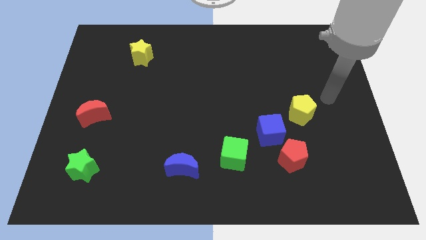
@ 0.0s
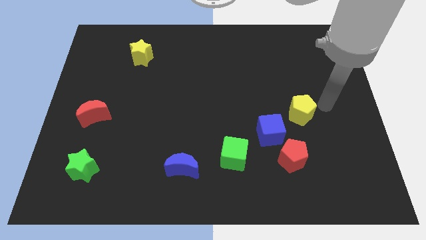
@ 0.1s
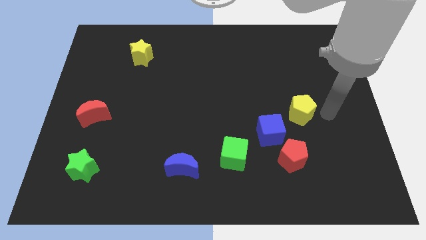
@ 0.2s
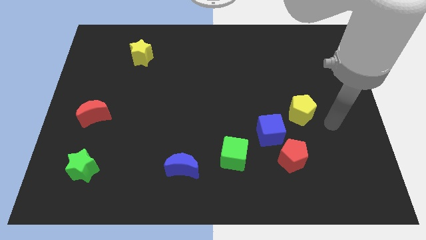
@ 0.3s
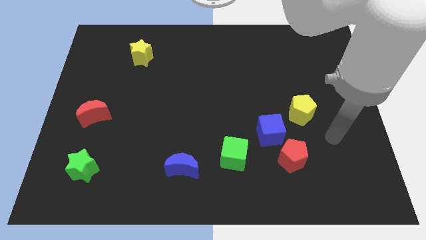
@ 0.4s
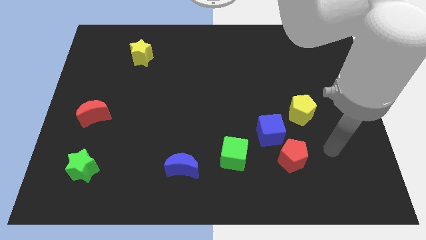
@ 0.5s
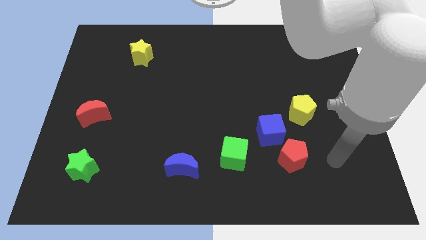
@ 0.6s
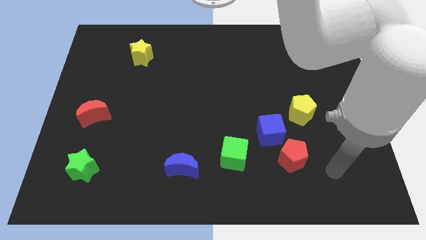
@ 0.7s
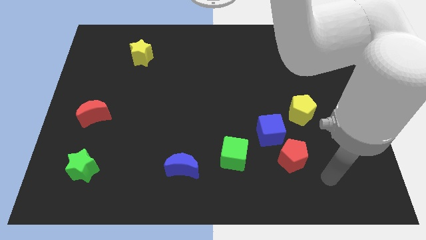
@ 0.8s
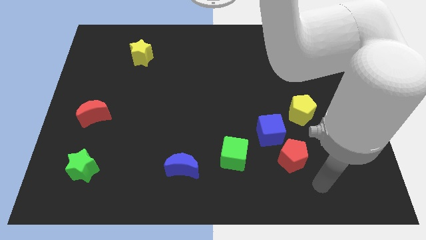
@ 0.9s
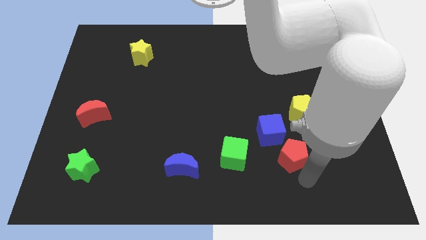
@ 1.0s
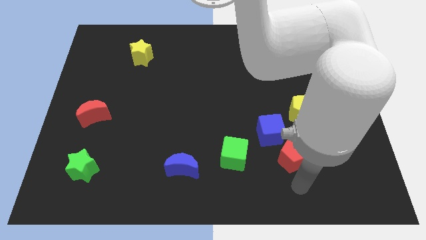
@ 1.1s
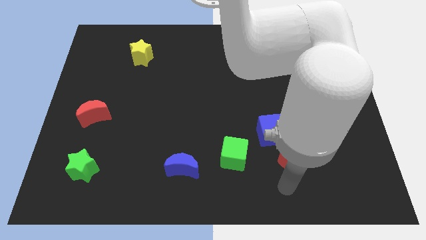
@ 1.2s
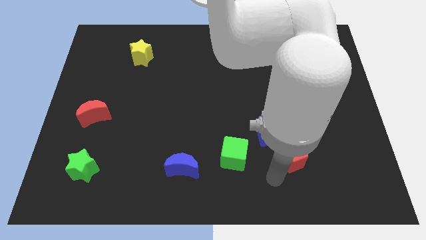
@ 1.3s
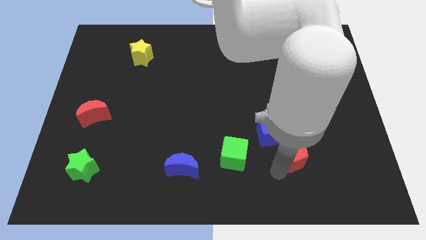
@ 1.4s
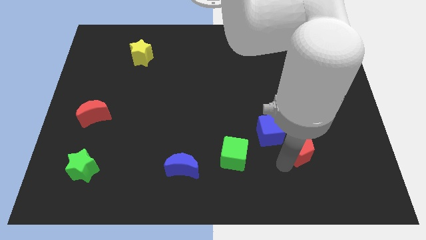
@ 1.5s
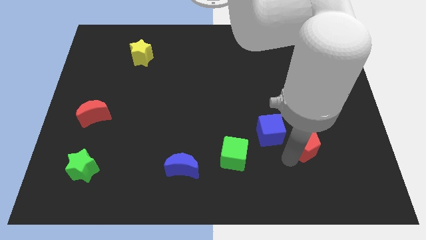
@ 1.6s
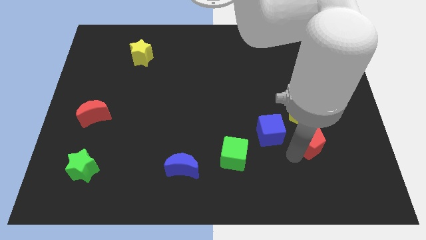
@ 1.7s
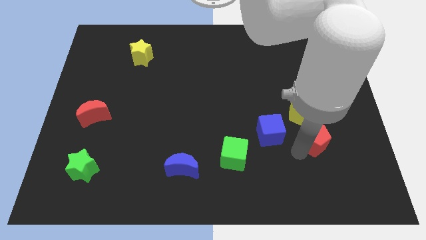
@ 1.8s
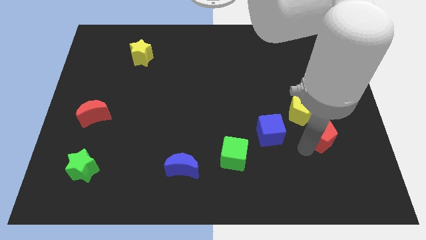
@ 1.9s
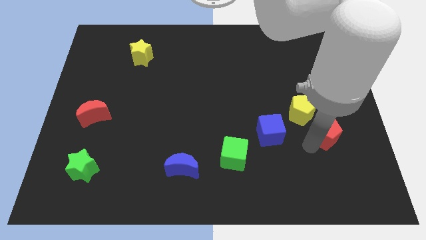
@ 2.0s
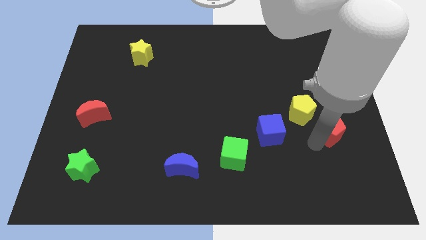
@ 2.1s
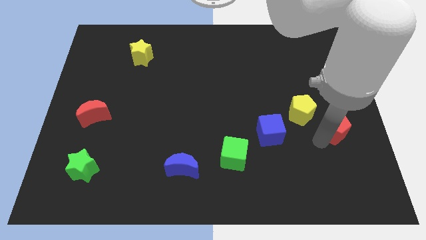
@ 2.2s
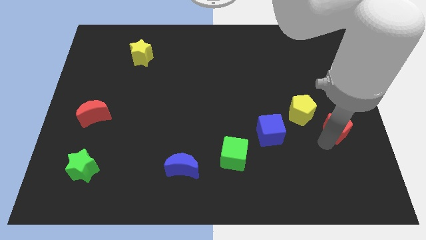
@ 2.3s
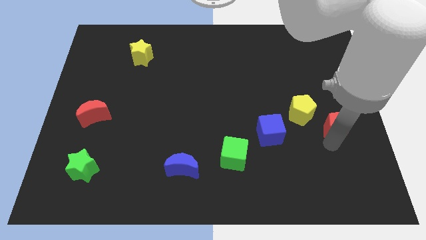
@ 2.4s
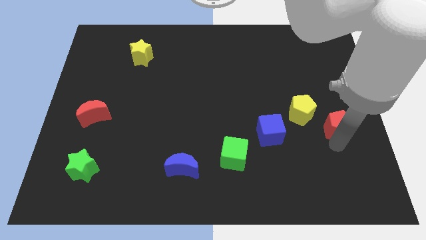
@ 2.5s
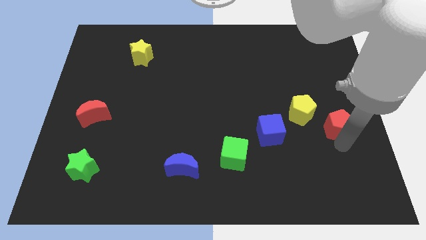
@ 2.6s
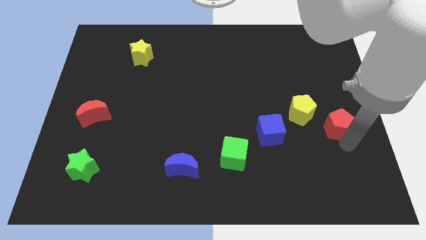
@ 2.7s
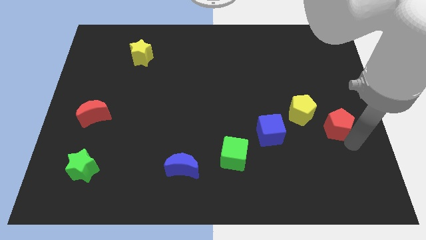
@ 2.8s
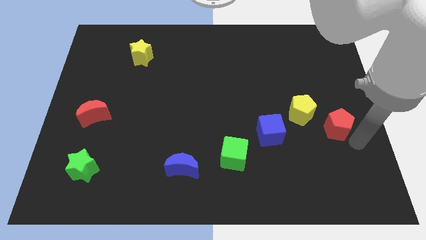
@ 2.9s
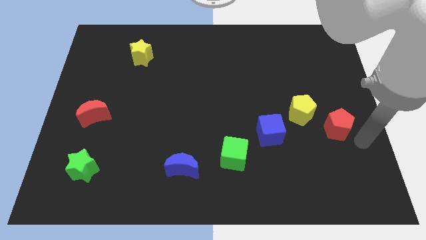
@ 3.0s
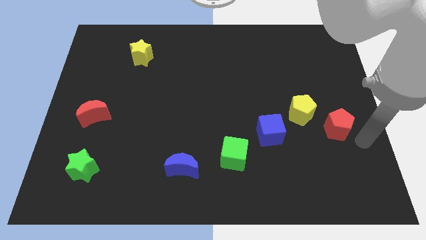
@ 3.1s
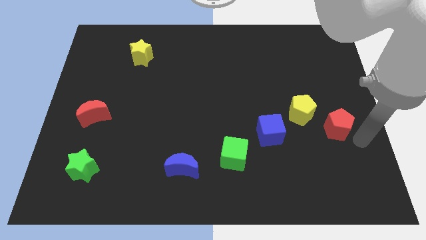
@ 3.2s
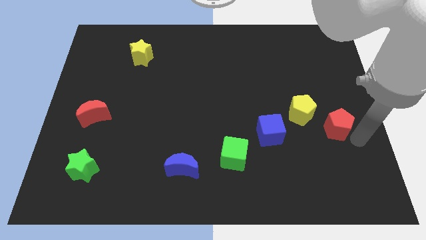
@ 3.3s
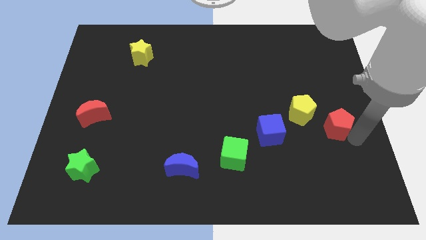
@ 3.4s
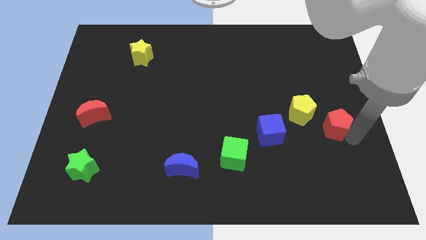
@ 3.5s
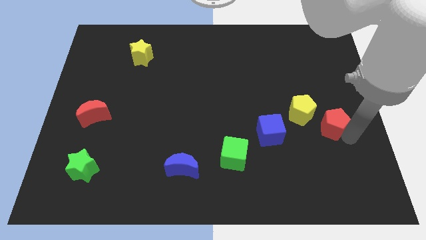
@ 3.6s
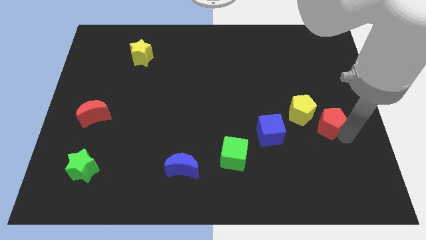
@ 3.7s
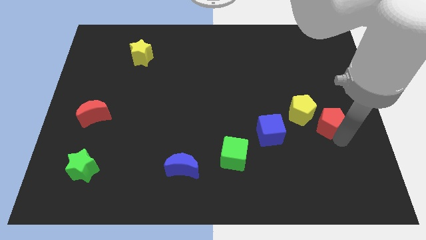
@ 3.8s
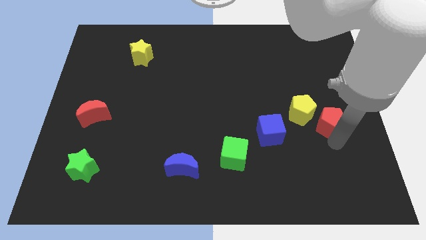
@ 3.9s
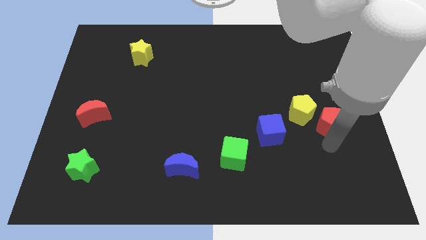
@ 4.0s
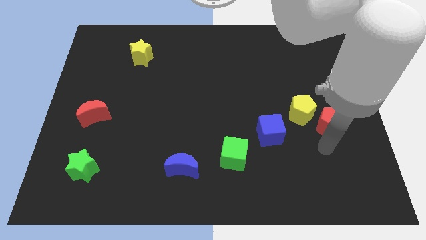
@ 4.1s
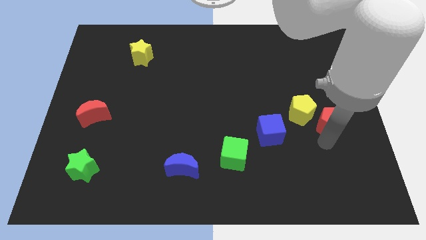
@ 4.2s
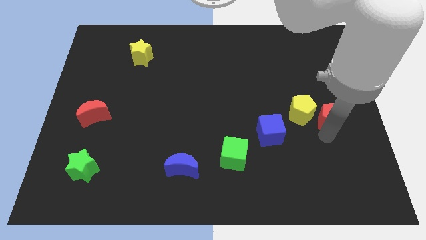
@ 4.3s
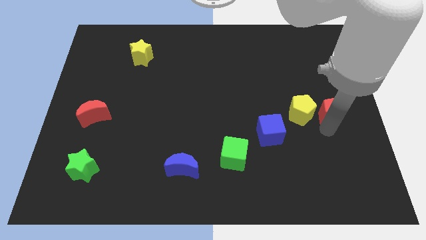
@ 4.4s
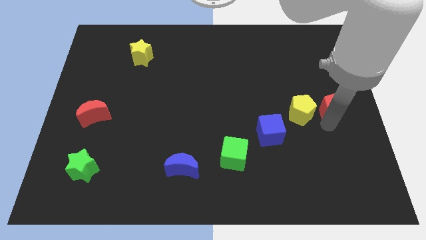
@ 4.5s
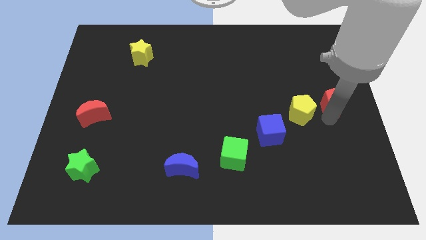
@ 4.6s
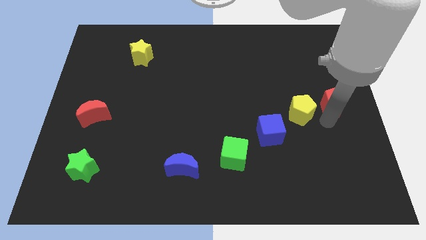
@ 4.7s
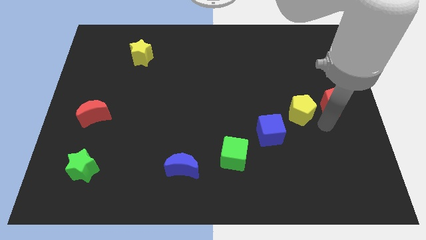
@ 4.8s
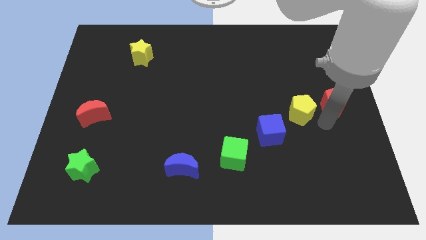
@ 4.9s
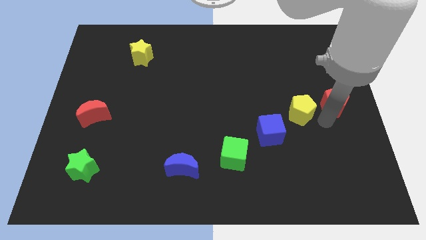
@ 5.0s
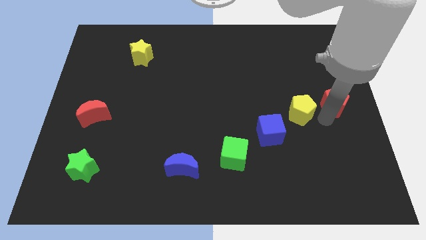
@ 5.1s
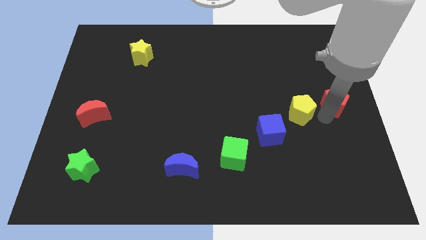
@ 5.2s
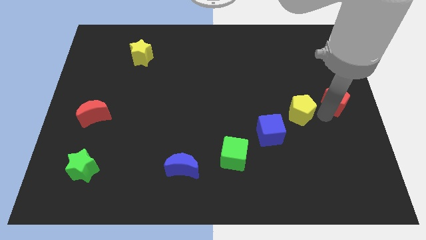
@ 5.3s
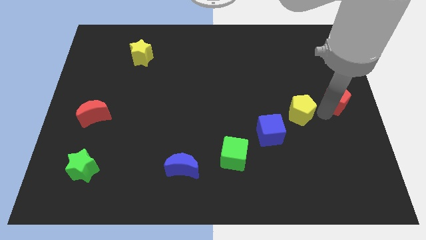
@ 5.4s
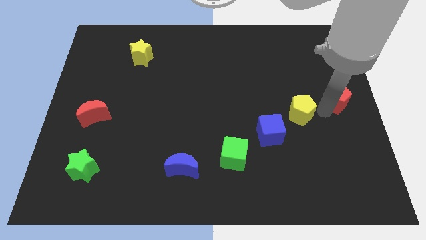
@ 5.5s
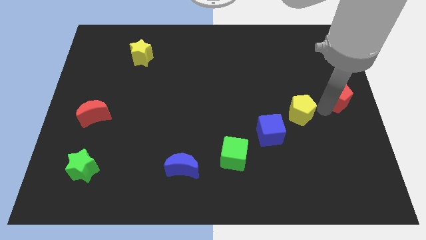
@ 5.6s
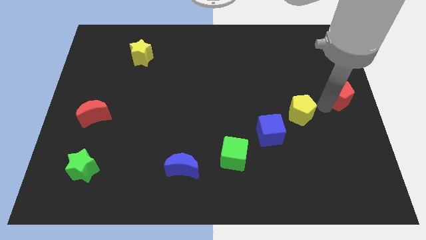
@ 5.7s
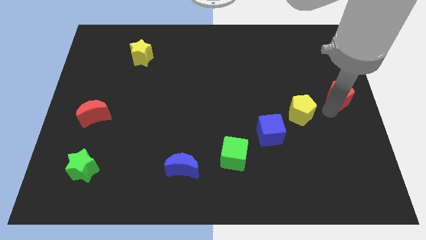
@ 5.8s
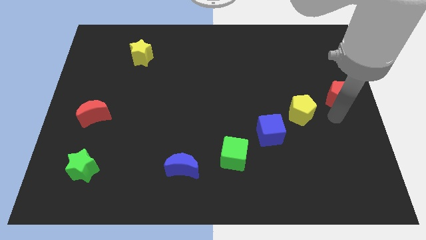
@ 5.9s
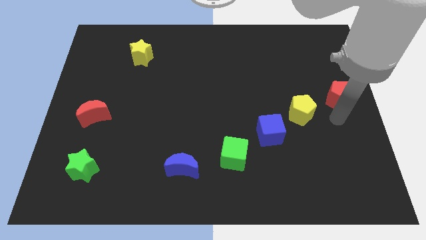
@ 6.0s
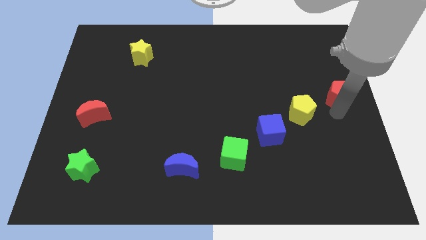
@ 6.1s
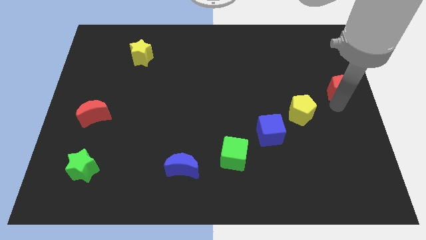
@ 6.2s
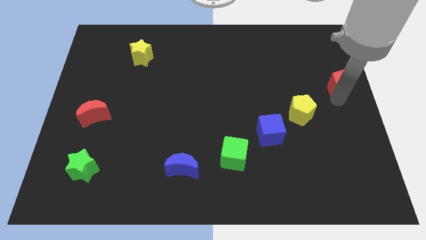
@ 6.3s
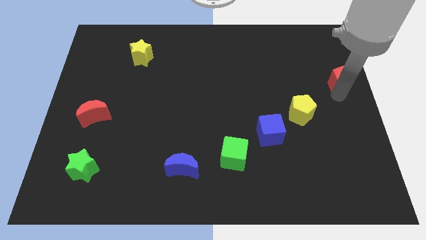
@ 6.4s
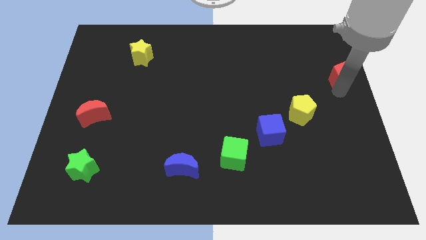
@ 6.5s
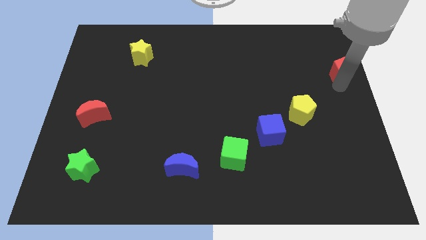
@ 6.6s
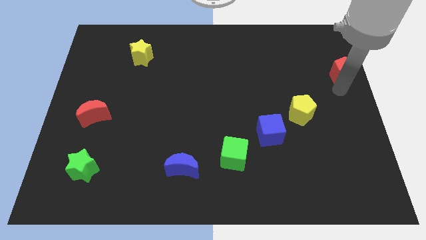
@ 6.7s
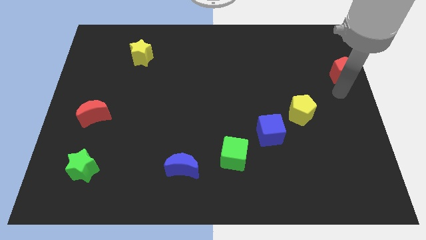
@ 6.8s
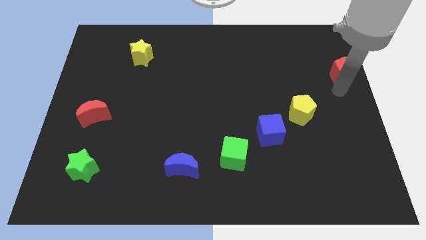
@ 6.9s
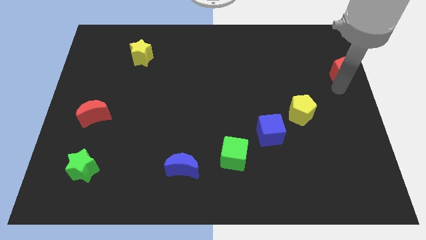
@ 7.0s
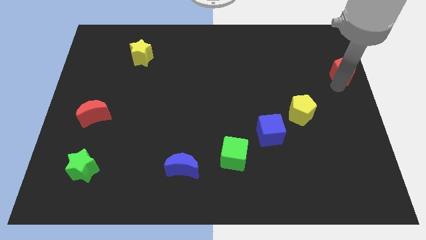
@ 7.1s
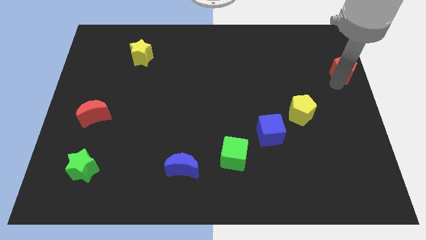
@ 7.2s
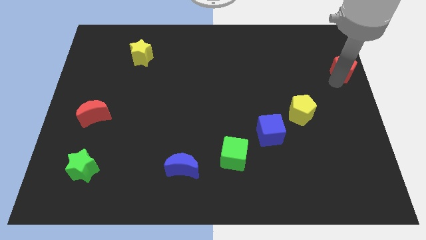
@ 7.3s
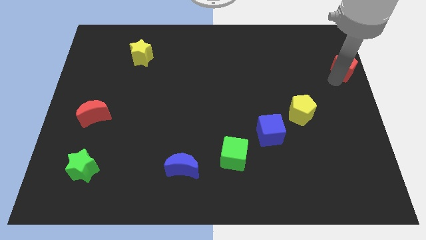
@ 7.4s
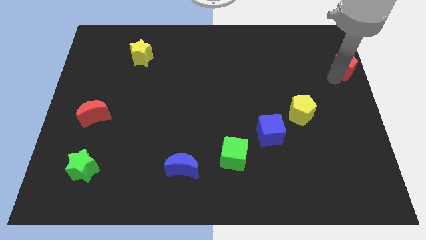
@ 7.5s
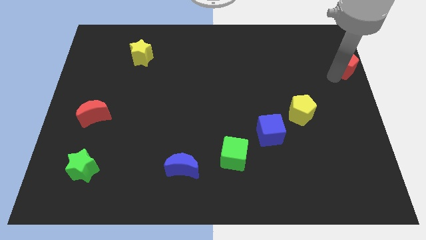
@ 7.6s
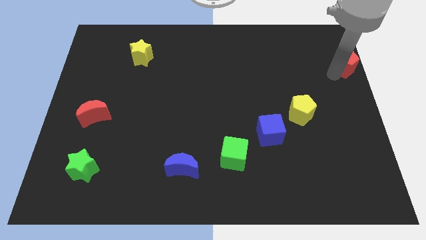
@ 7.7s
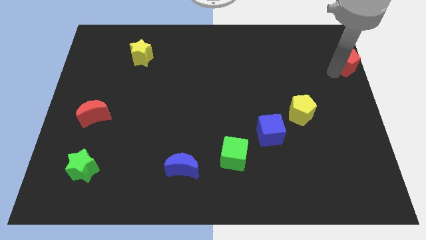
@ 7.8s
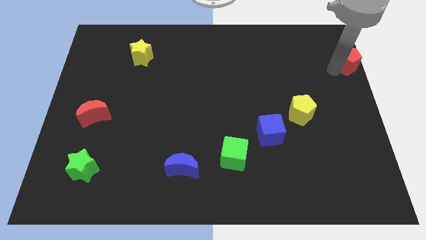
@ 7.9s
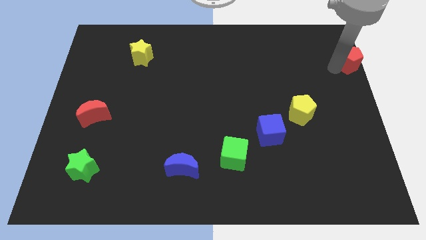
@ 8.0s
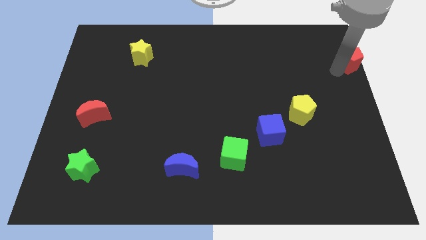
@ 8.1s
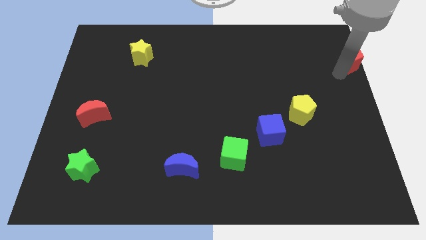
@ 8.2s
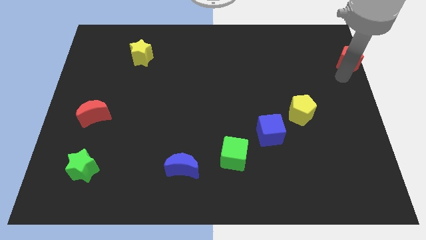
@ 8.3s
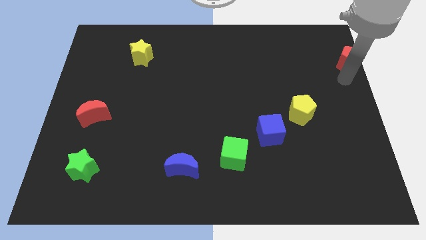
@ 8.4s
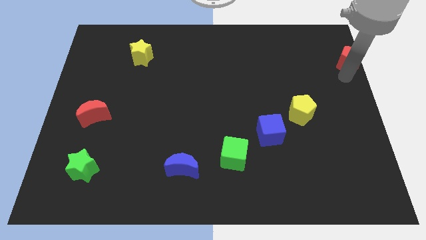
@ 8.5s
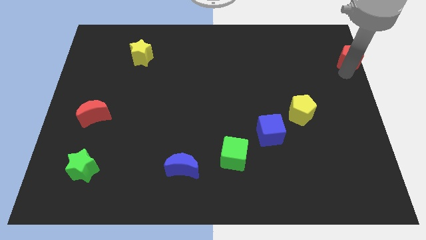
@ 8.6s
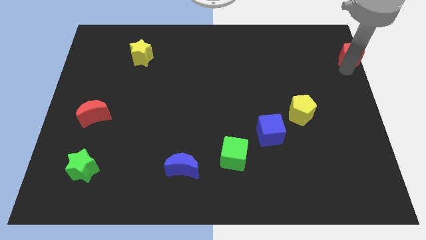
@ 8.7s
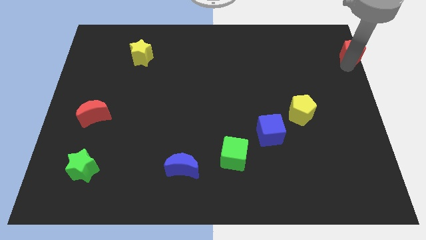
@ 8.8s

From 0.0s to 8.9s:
slide the red pentagon to the top right of the board
